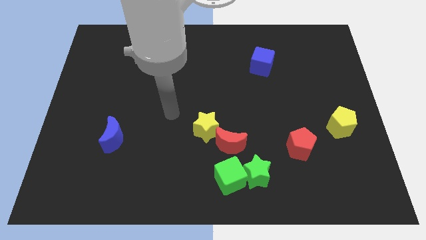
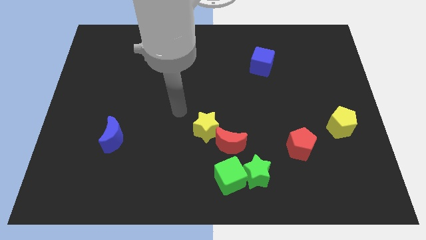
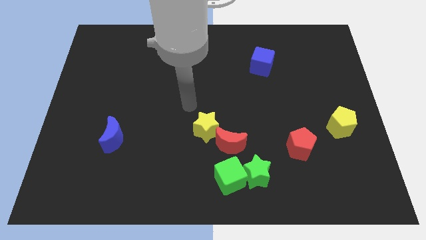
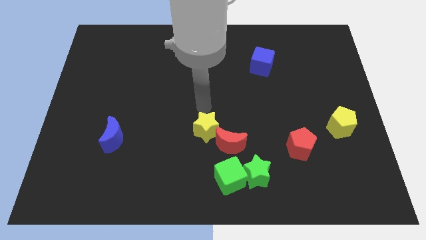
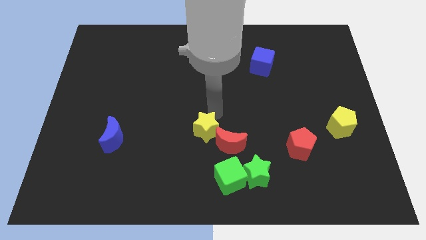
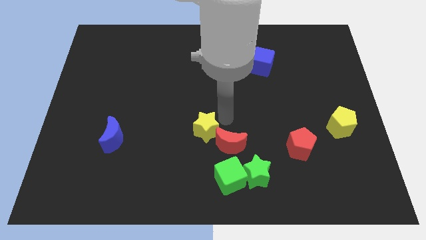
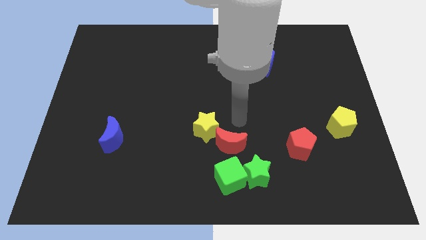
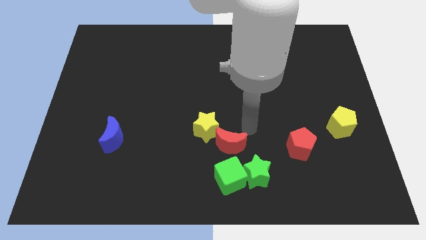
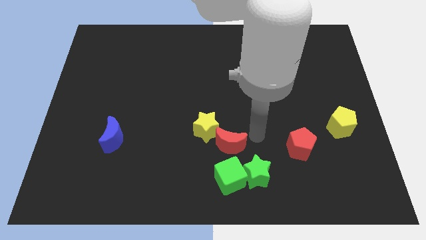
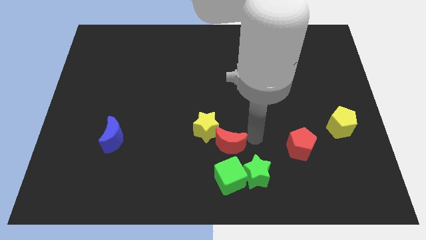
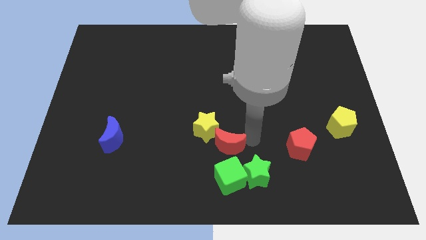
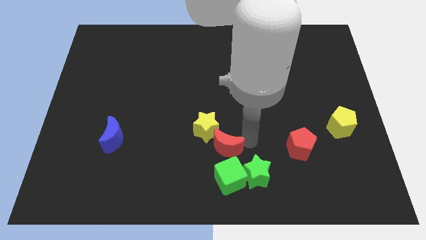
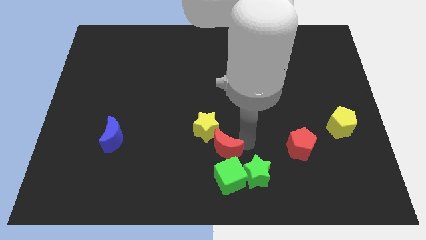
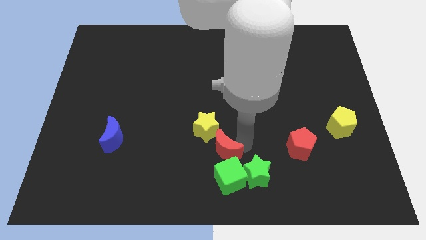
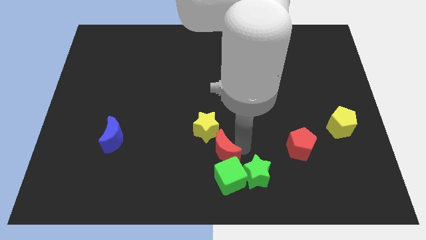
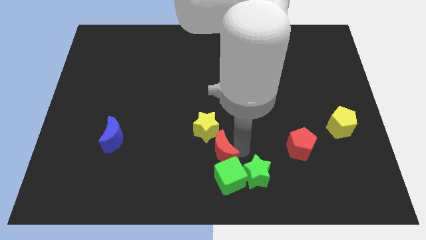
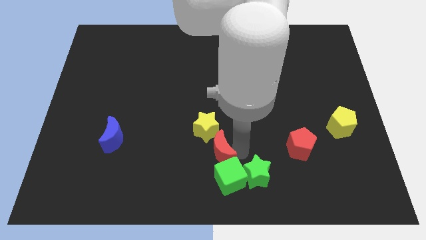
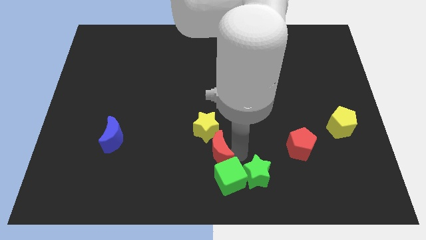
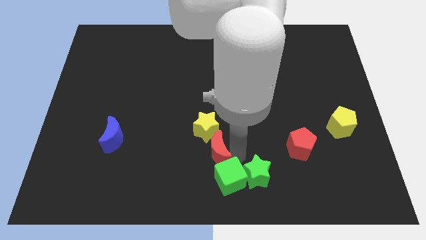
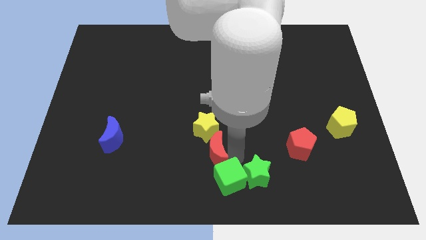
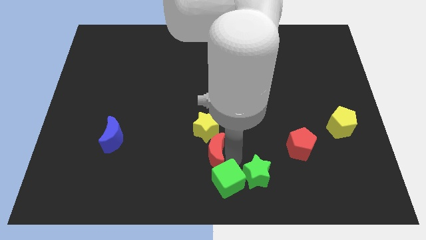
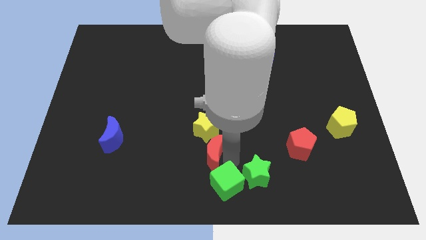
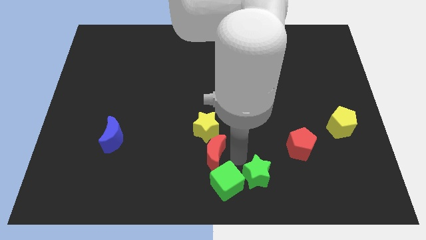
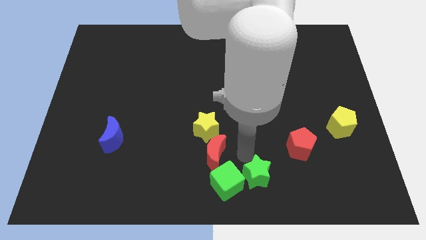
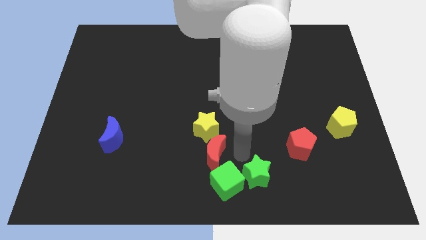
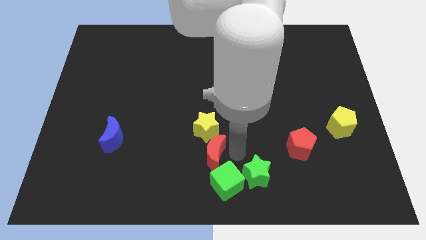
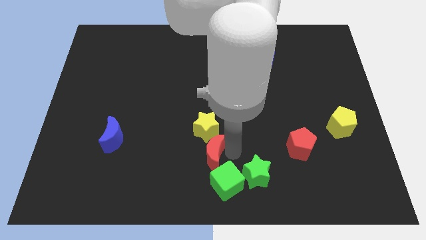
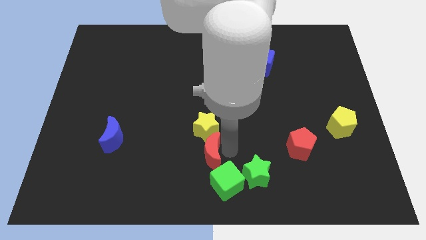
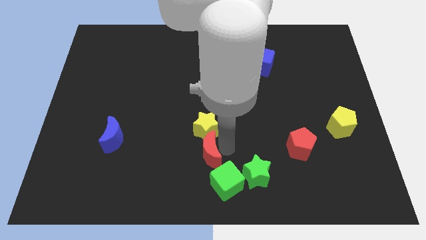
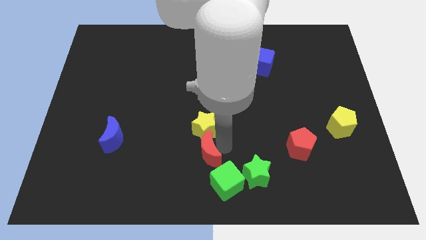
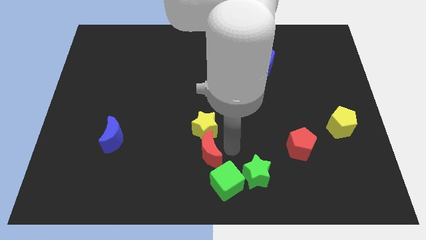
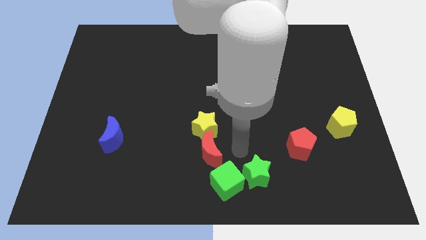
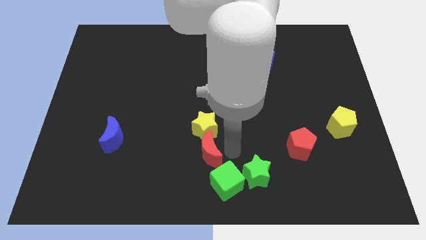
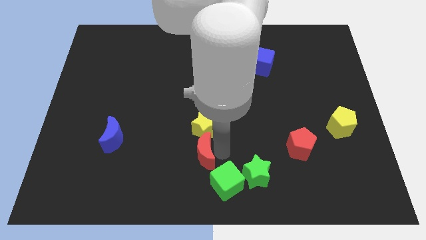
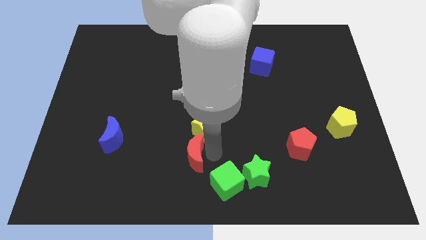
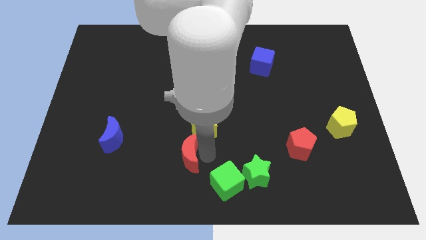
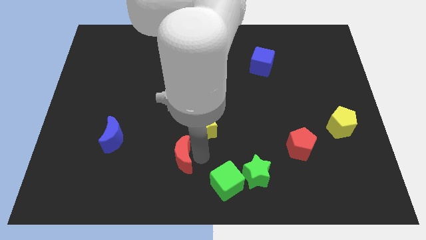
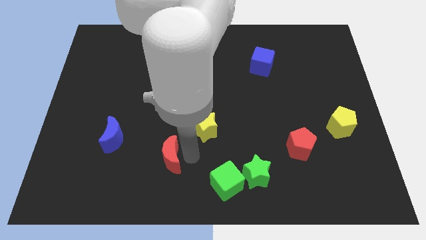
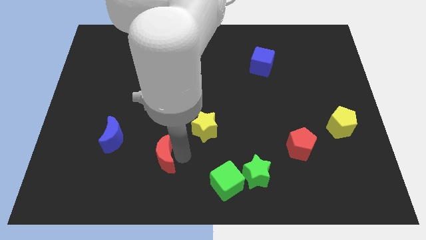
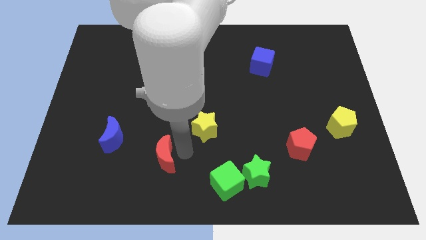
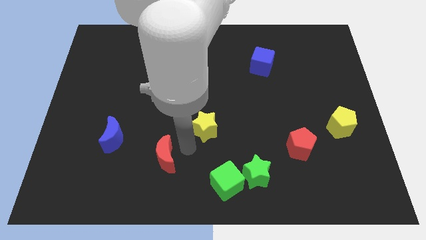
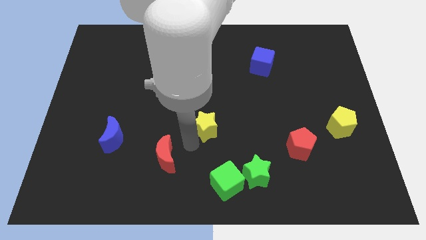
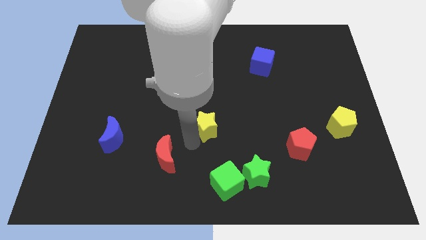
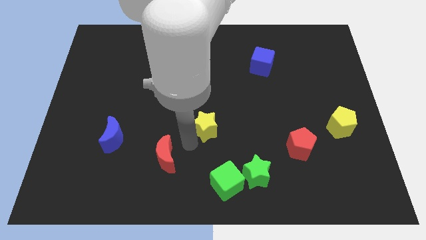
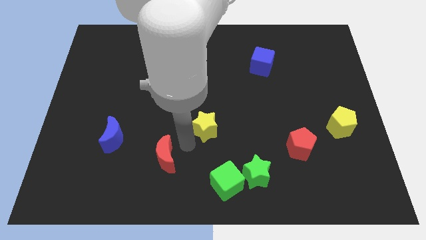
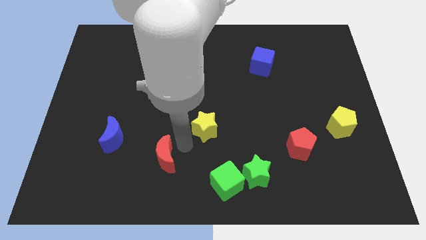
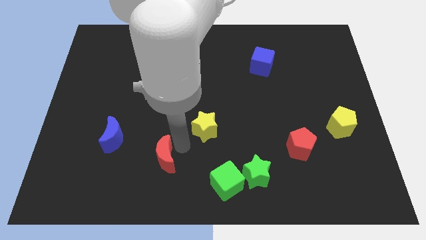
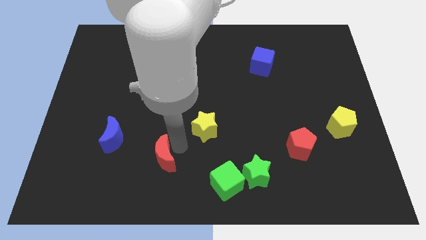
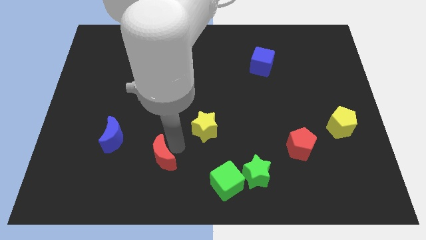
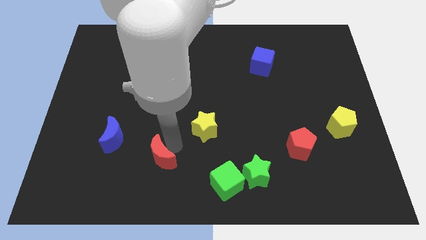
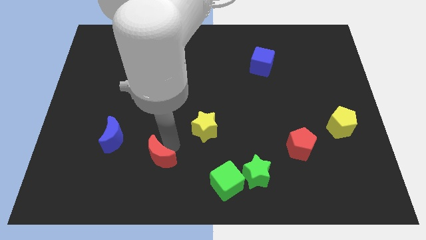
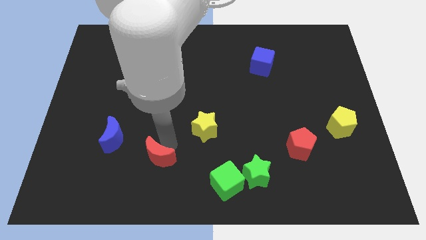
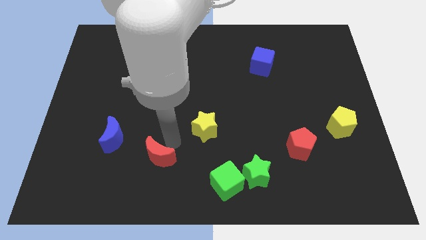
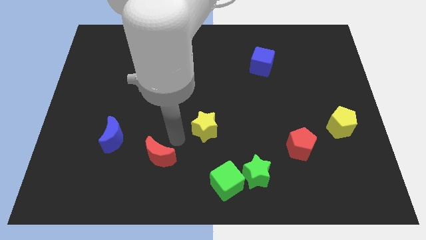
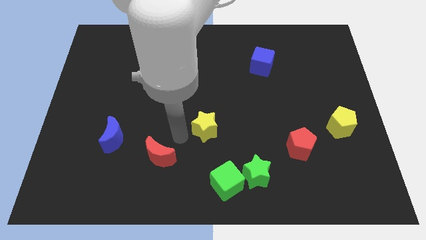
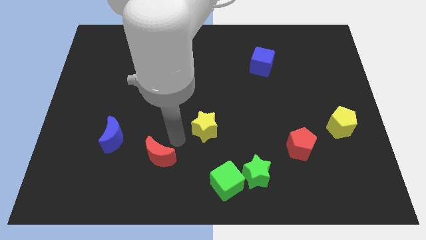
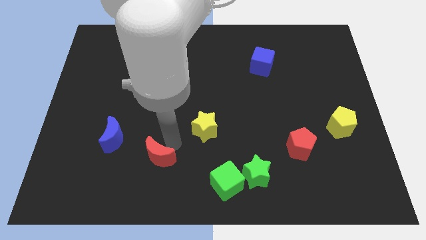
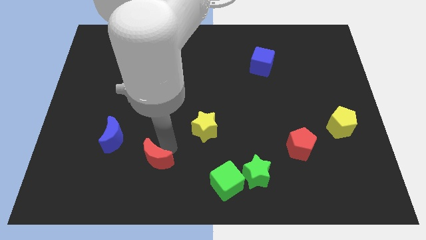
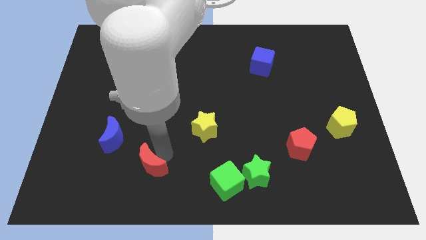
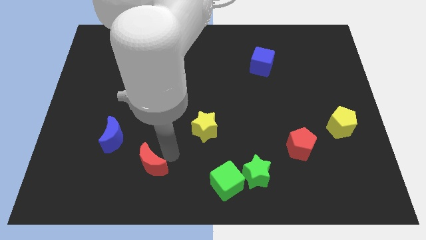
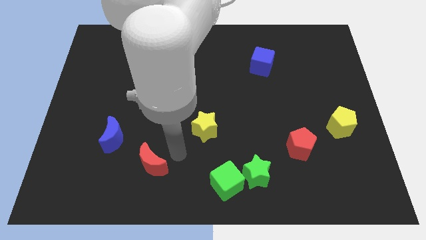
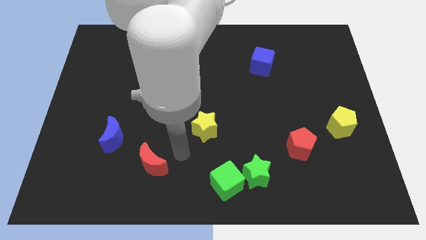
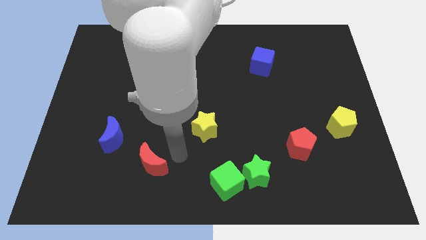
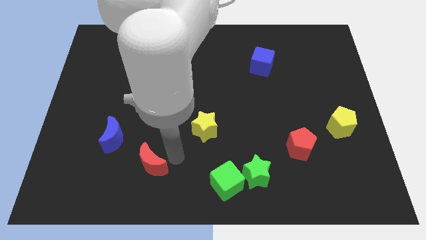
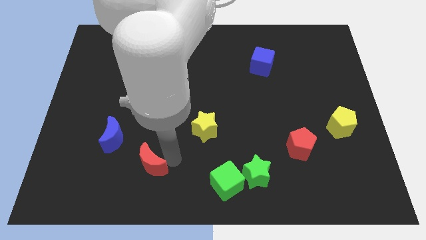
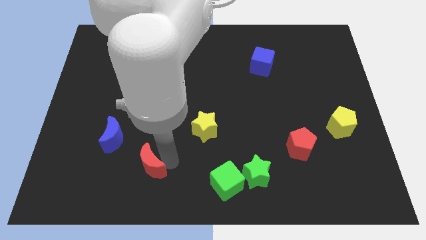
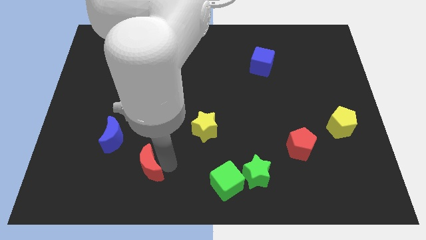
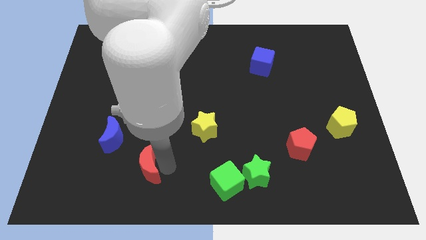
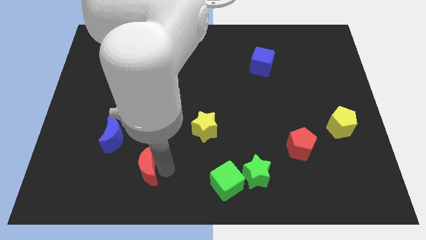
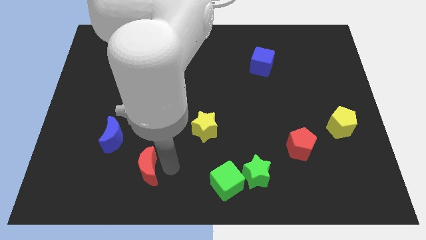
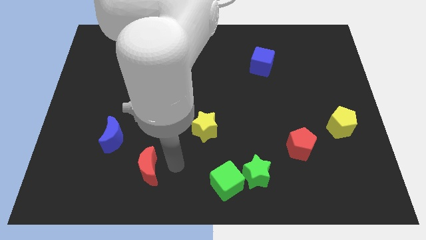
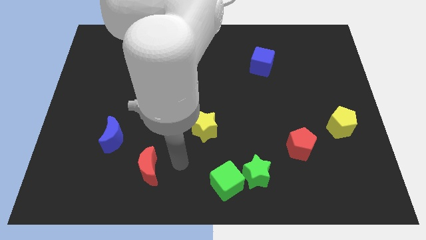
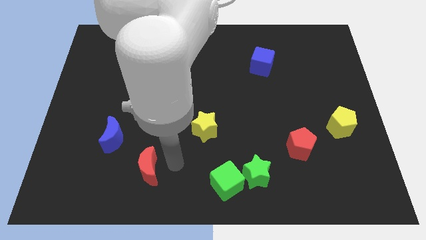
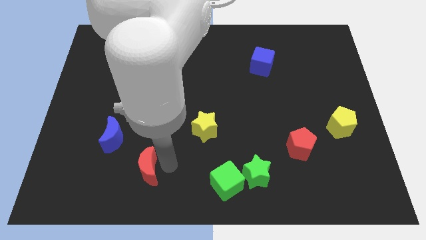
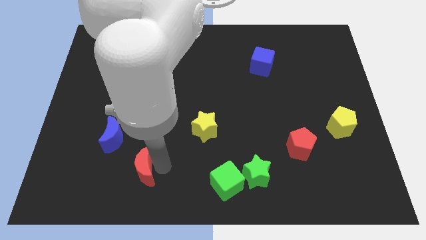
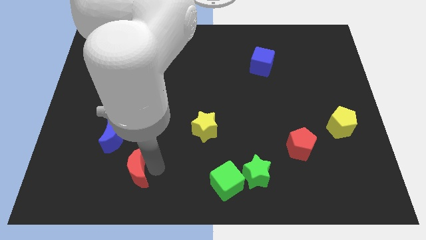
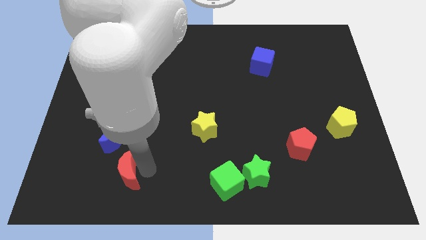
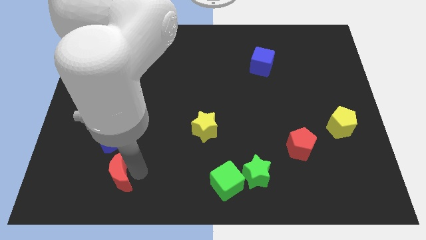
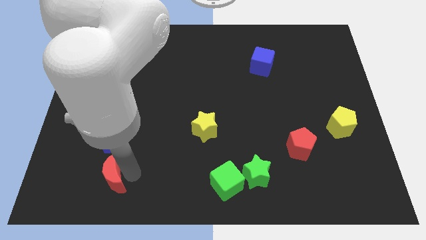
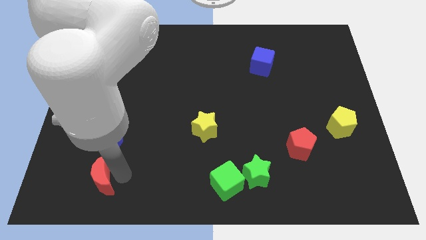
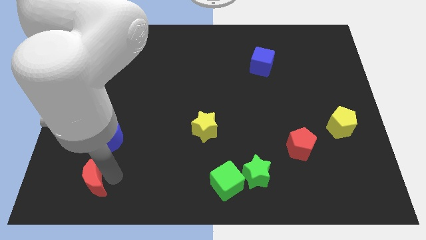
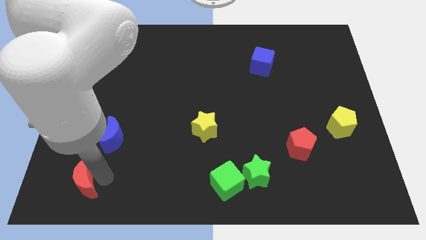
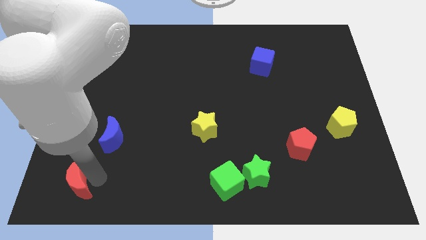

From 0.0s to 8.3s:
put the red moon to the bottom left corner
